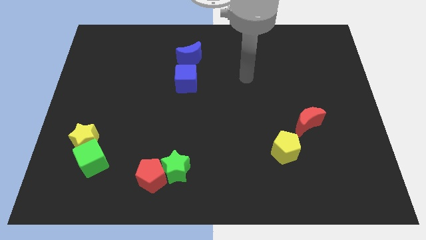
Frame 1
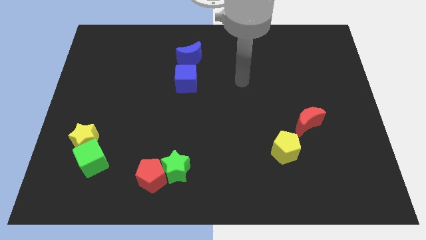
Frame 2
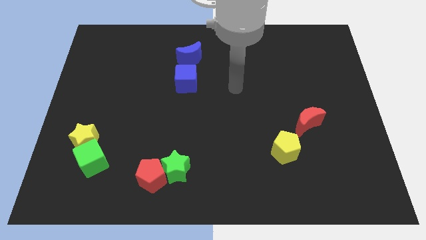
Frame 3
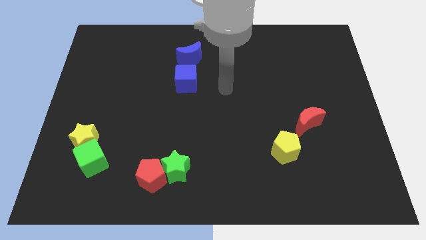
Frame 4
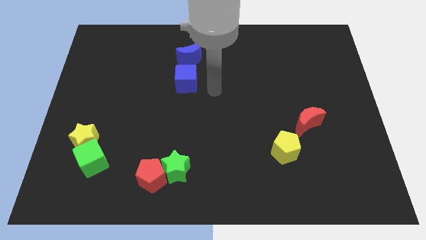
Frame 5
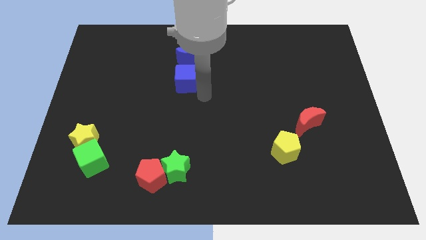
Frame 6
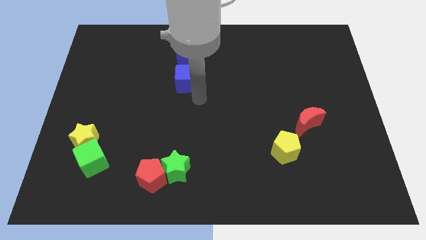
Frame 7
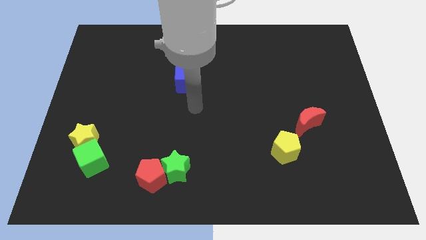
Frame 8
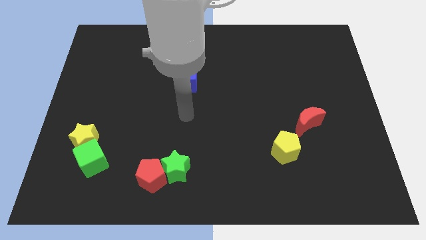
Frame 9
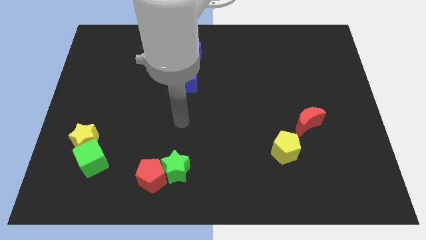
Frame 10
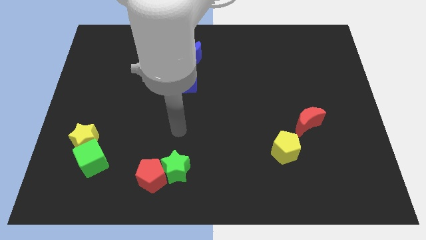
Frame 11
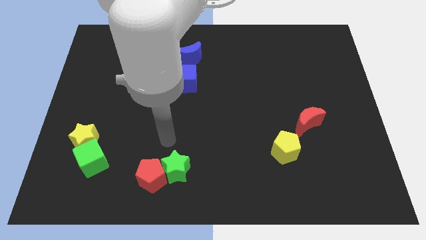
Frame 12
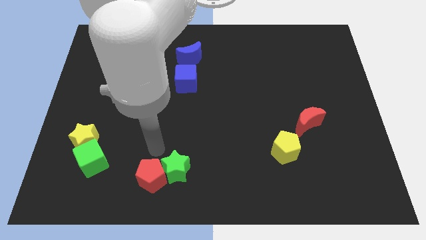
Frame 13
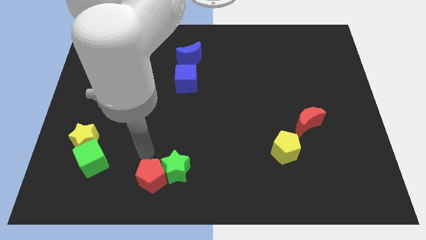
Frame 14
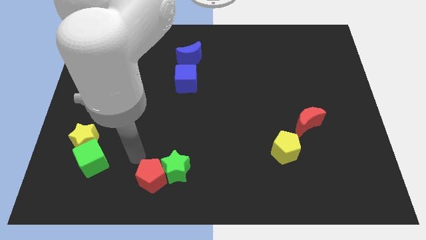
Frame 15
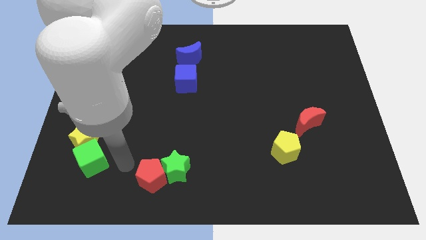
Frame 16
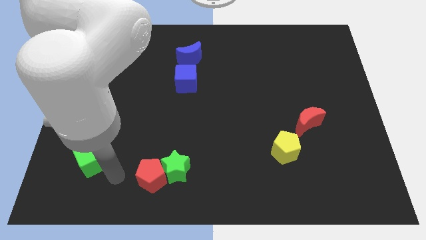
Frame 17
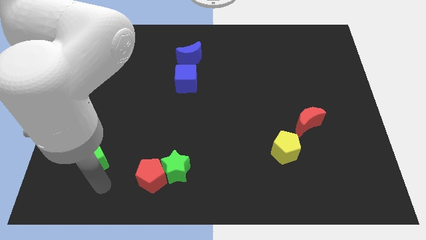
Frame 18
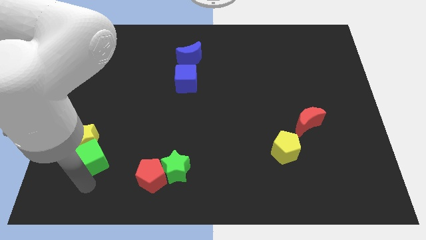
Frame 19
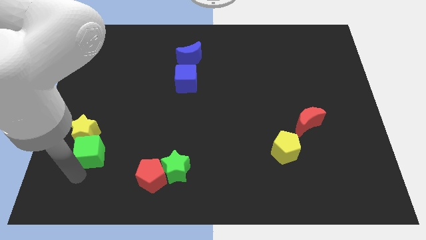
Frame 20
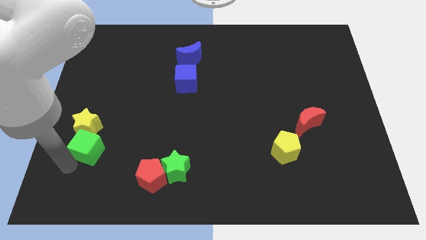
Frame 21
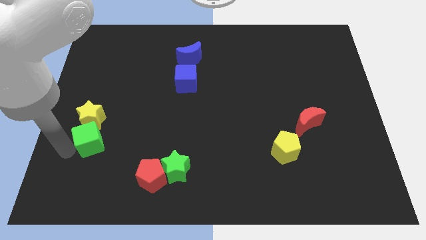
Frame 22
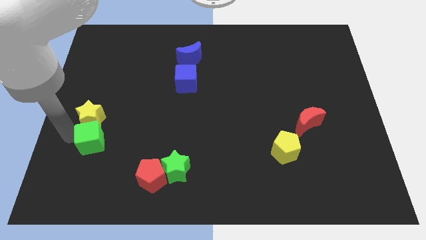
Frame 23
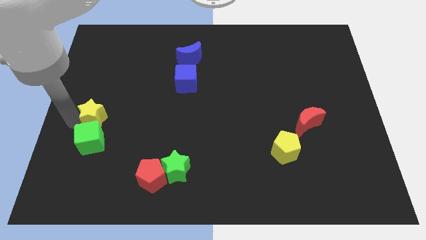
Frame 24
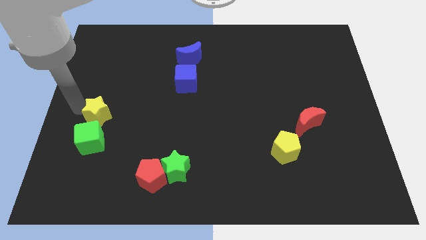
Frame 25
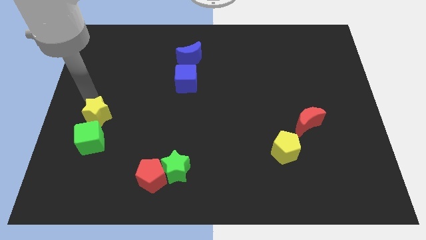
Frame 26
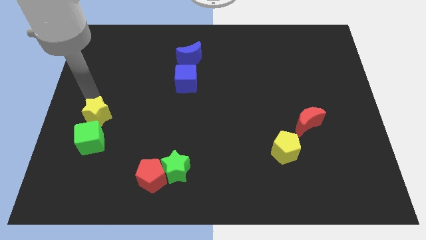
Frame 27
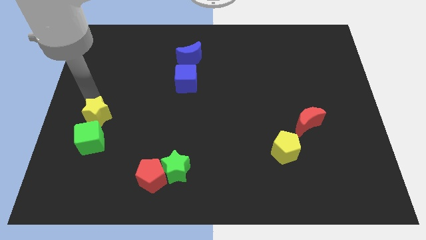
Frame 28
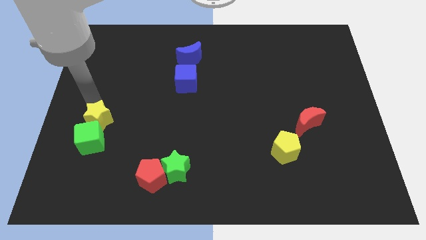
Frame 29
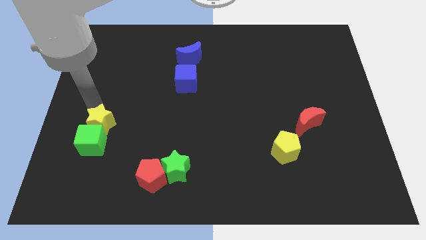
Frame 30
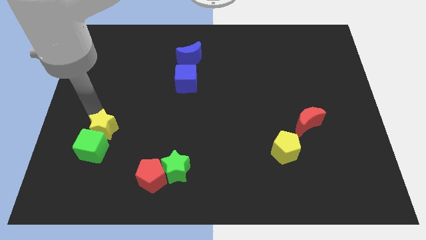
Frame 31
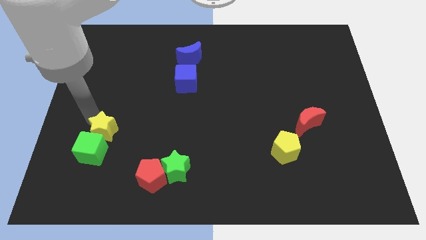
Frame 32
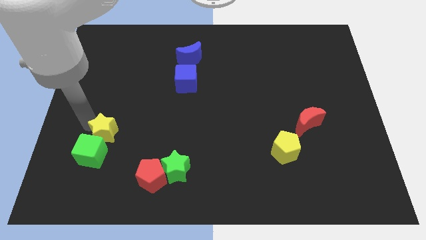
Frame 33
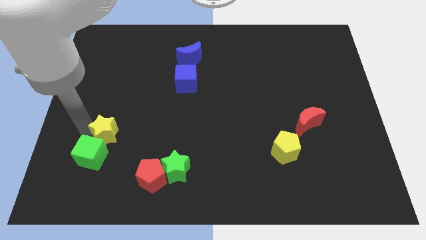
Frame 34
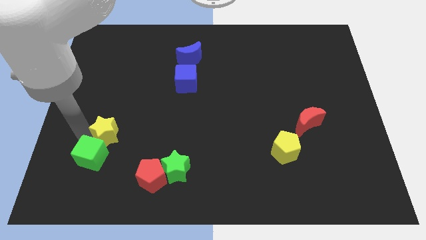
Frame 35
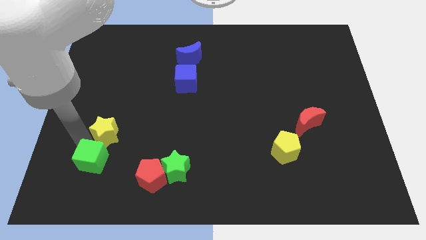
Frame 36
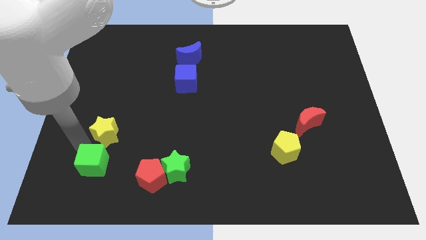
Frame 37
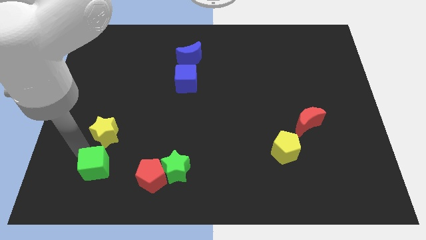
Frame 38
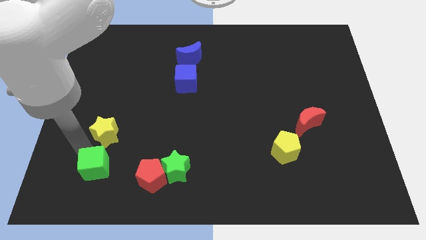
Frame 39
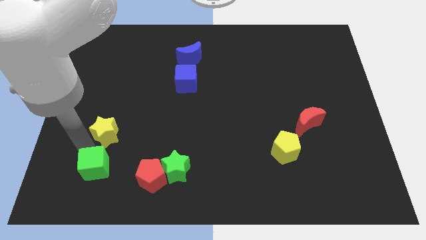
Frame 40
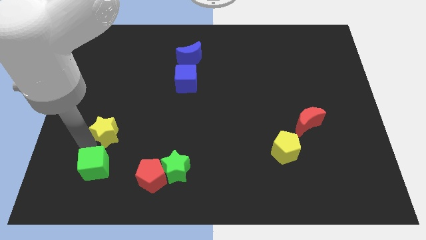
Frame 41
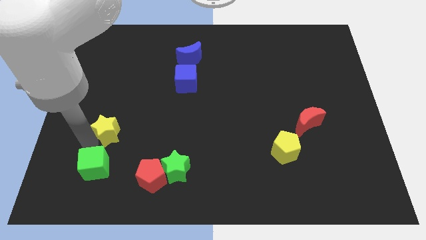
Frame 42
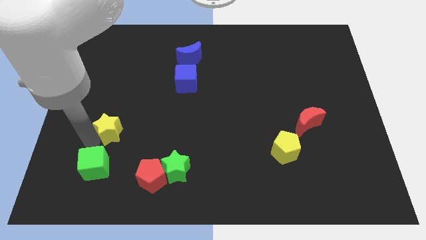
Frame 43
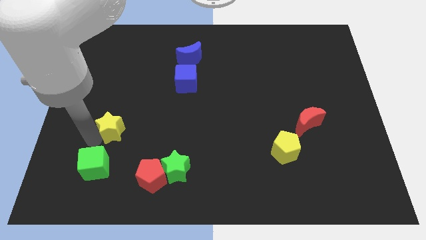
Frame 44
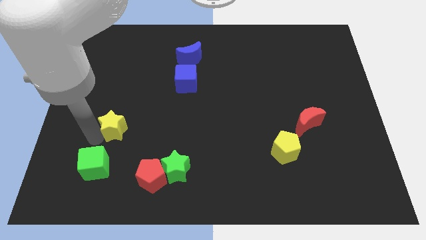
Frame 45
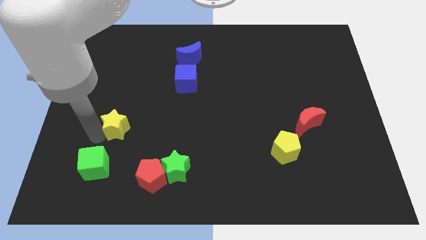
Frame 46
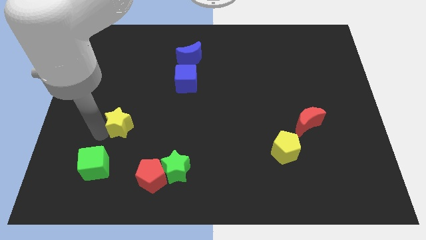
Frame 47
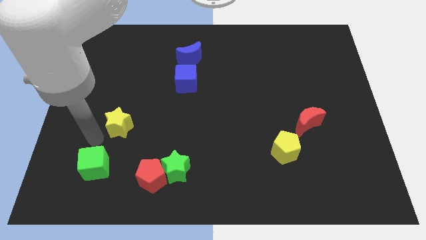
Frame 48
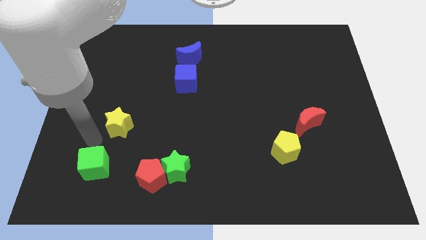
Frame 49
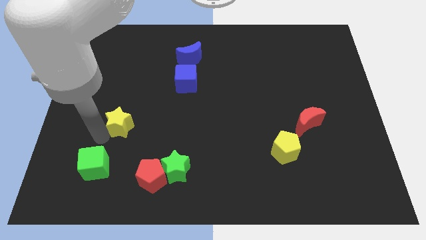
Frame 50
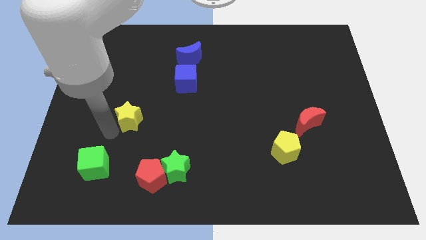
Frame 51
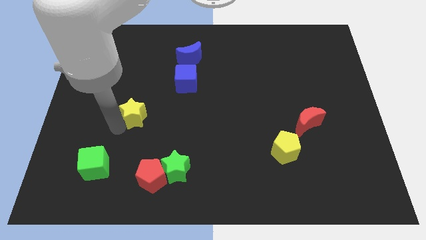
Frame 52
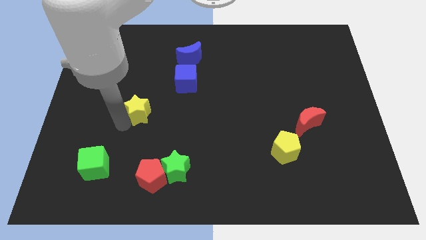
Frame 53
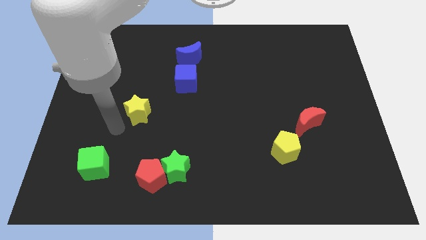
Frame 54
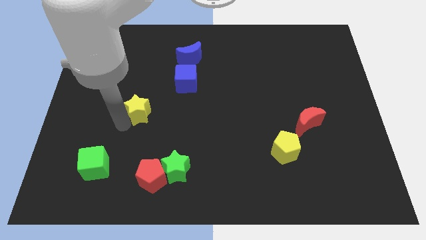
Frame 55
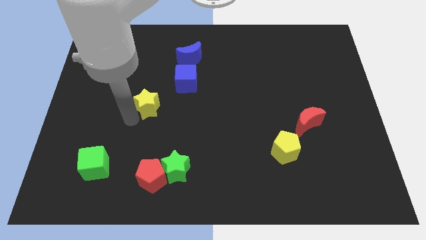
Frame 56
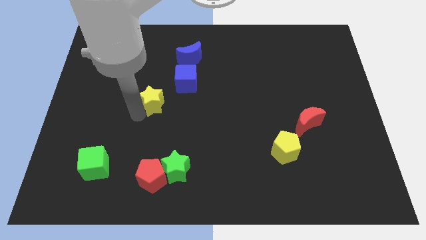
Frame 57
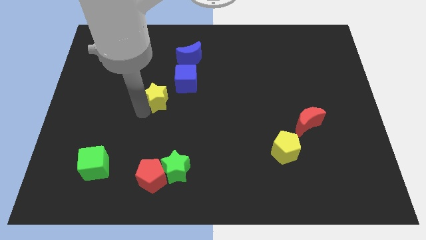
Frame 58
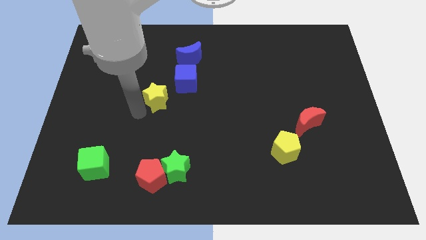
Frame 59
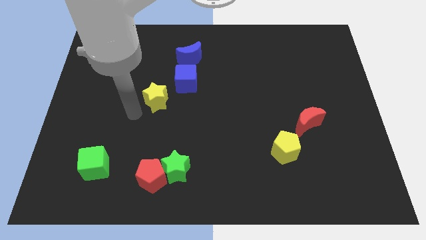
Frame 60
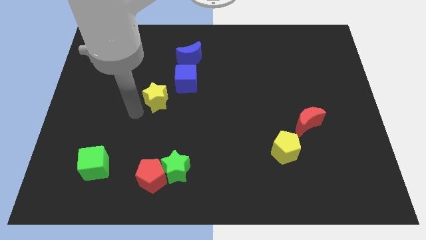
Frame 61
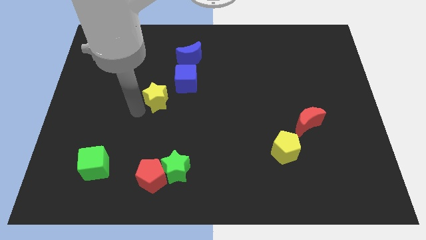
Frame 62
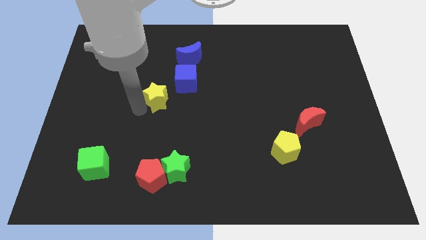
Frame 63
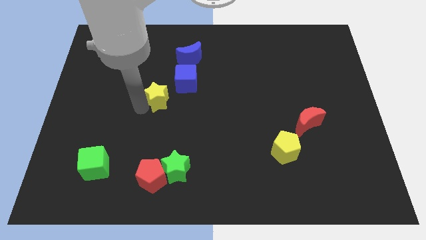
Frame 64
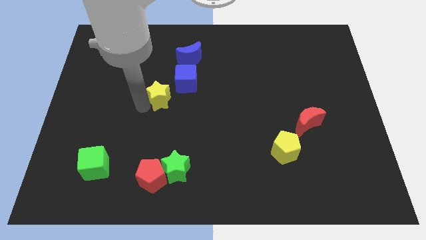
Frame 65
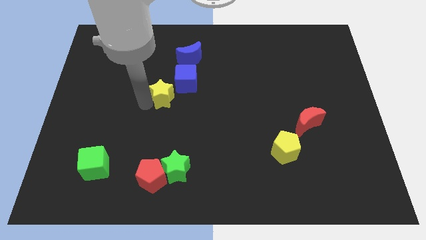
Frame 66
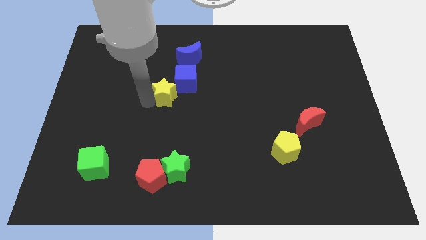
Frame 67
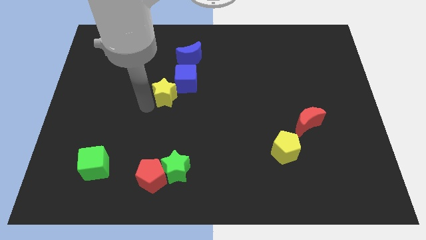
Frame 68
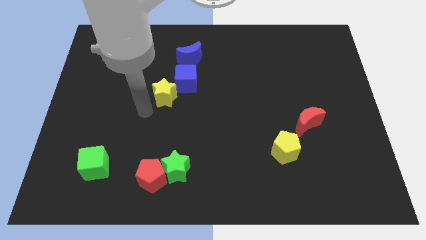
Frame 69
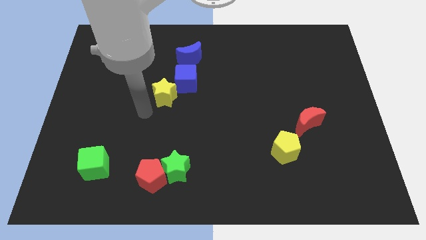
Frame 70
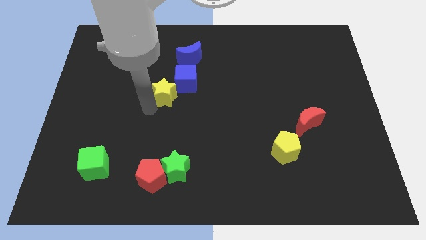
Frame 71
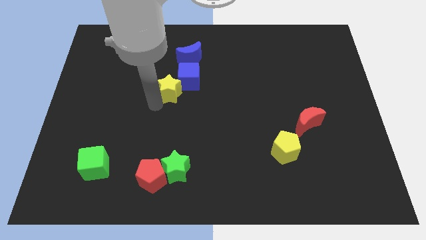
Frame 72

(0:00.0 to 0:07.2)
push the yellow star to the blue cube
